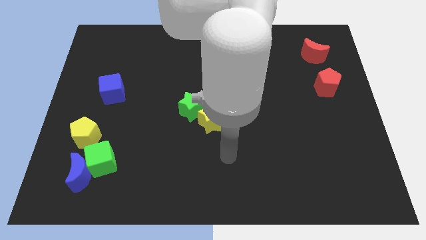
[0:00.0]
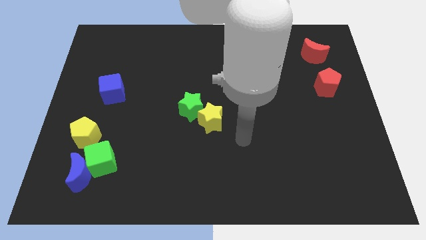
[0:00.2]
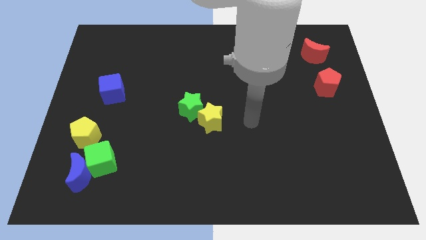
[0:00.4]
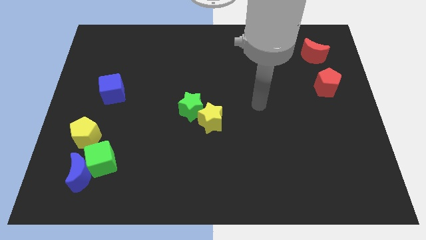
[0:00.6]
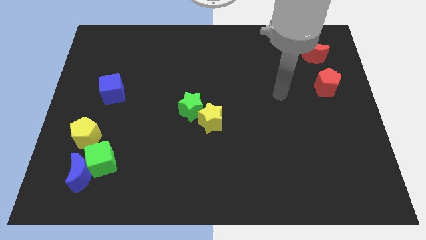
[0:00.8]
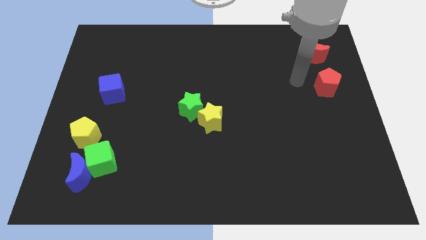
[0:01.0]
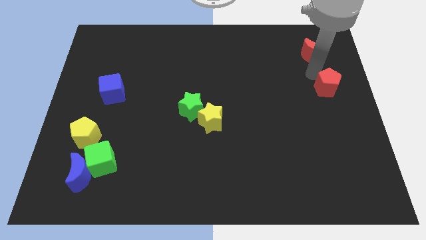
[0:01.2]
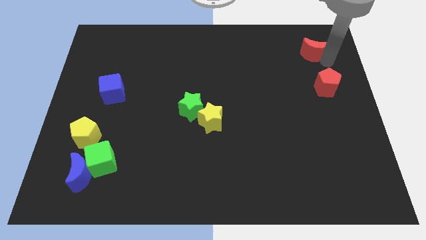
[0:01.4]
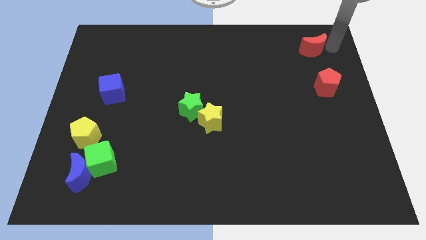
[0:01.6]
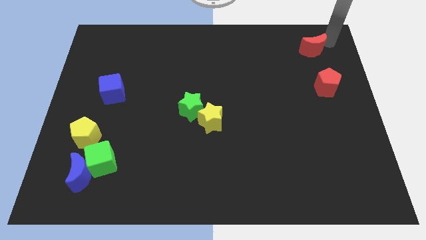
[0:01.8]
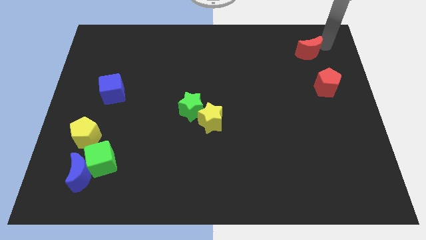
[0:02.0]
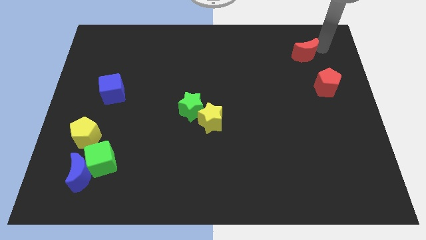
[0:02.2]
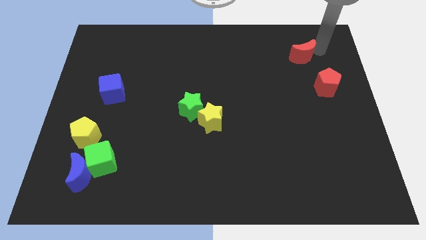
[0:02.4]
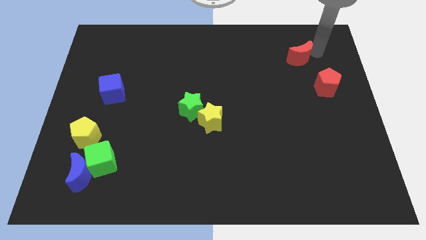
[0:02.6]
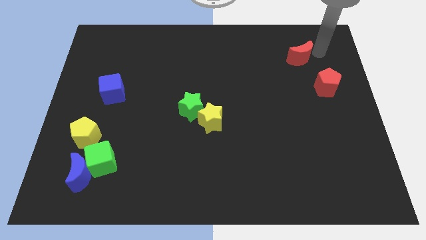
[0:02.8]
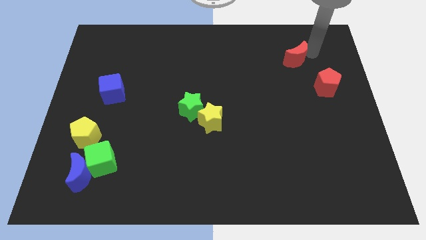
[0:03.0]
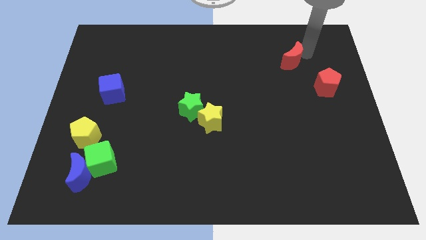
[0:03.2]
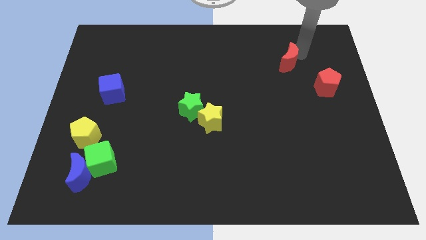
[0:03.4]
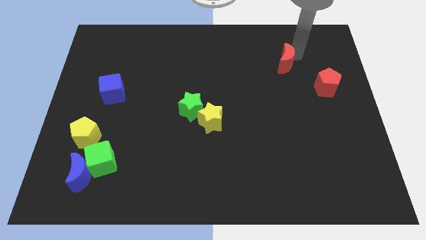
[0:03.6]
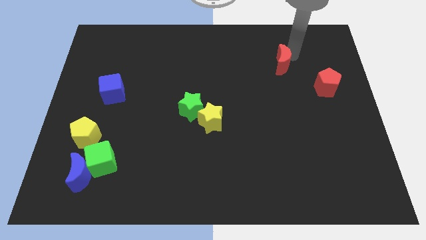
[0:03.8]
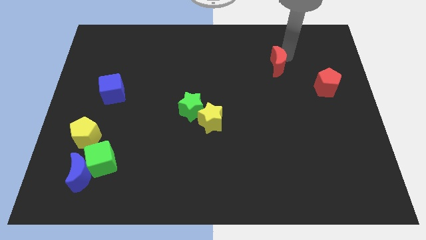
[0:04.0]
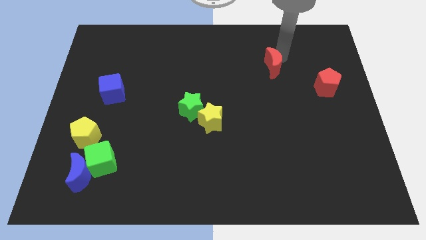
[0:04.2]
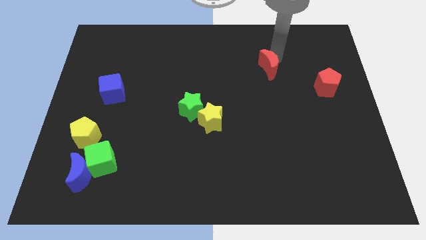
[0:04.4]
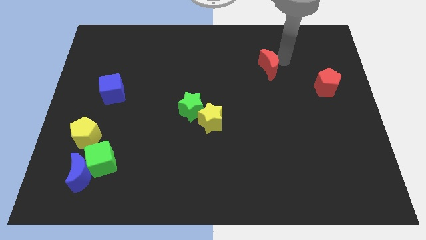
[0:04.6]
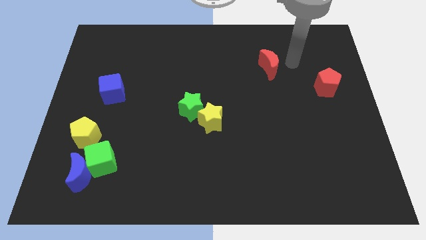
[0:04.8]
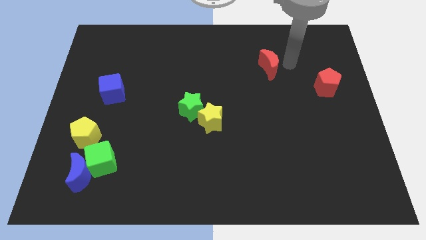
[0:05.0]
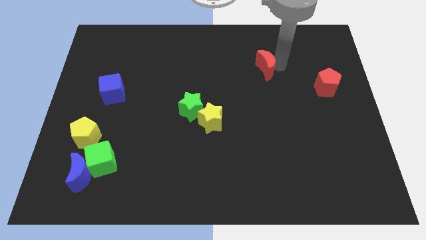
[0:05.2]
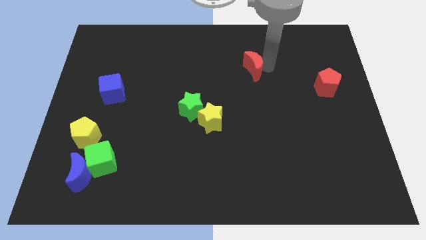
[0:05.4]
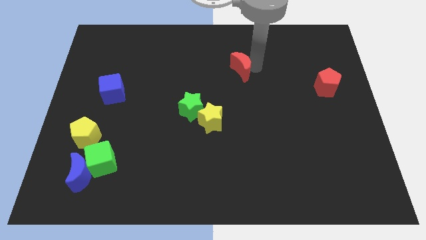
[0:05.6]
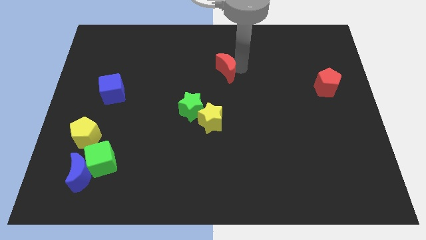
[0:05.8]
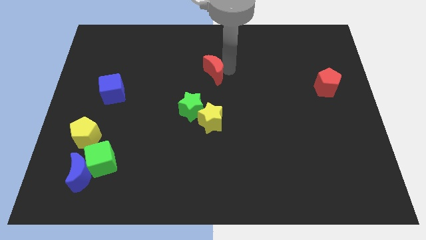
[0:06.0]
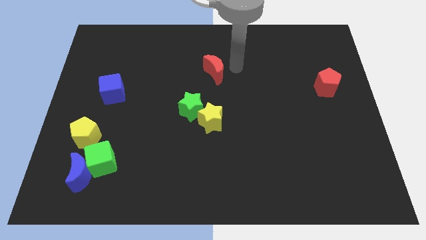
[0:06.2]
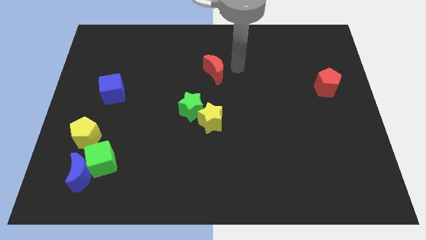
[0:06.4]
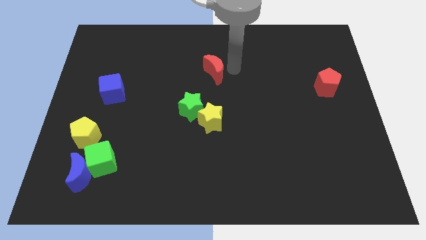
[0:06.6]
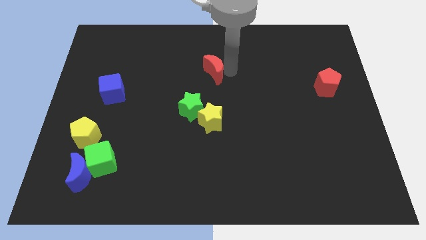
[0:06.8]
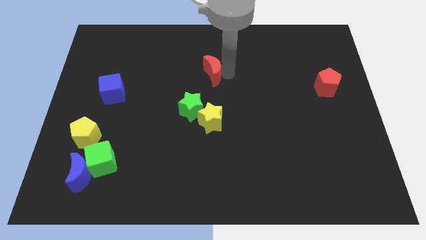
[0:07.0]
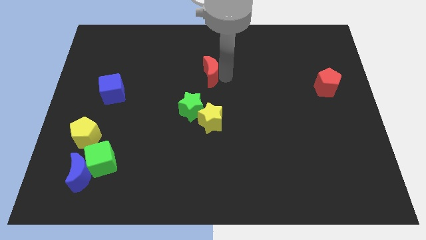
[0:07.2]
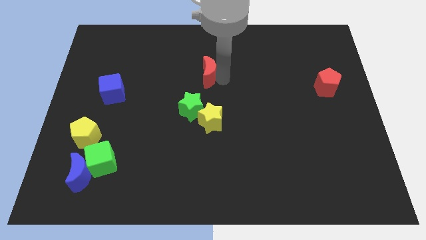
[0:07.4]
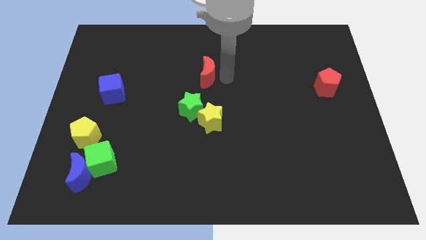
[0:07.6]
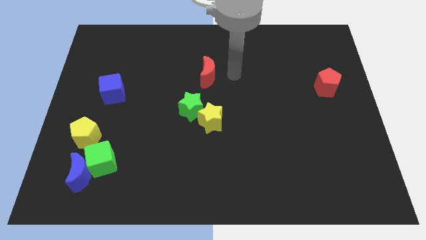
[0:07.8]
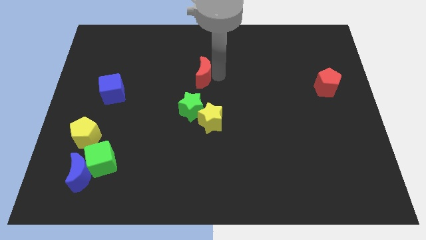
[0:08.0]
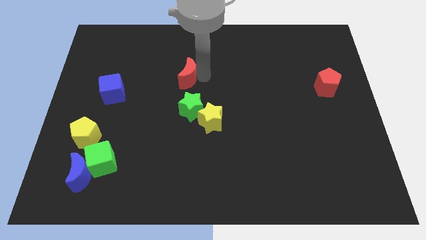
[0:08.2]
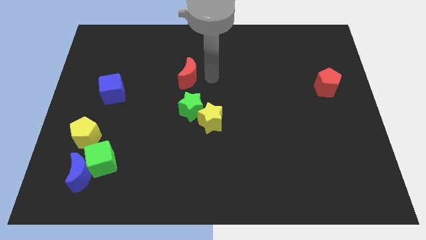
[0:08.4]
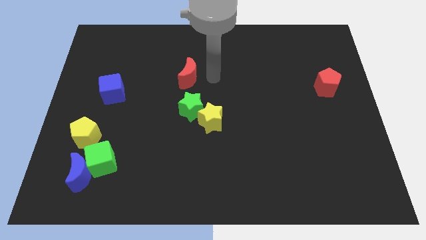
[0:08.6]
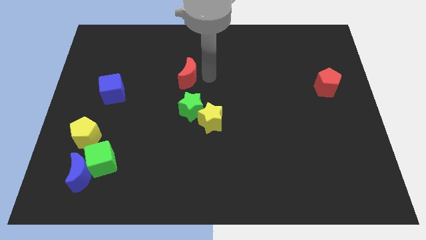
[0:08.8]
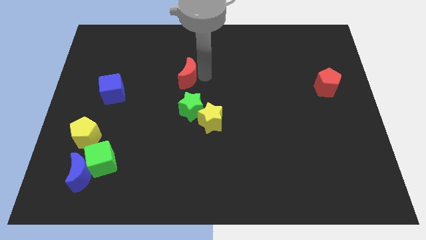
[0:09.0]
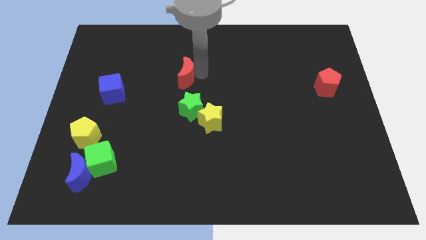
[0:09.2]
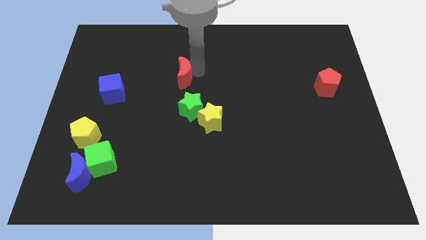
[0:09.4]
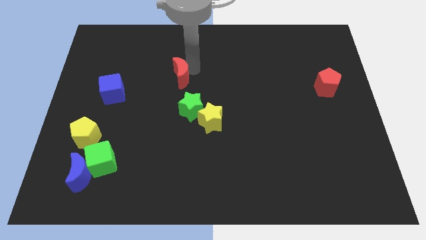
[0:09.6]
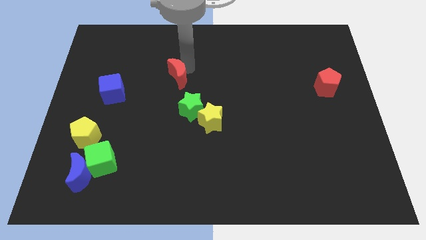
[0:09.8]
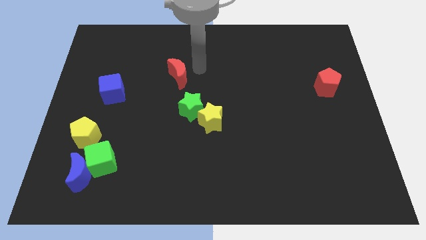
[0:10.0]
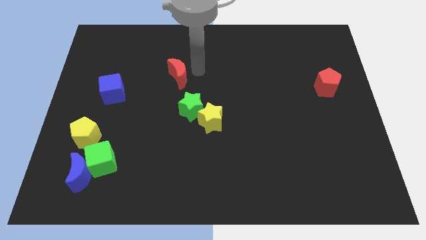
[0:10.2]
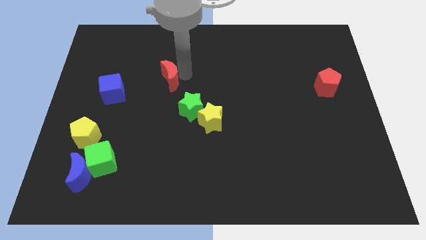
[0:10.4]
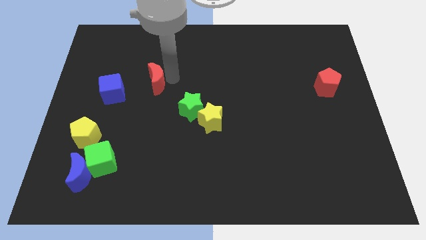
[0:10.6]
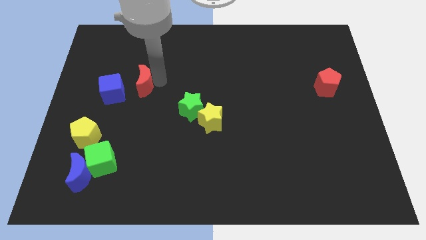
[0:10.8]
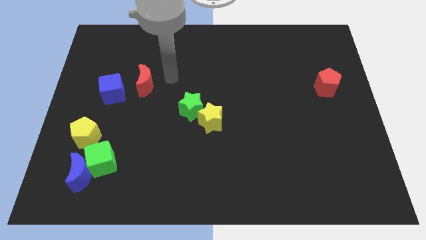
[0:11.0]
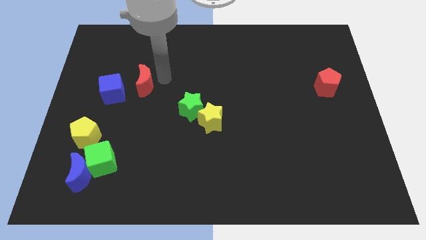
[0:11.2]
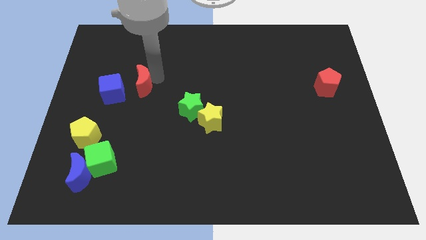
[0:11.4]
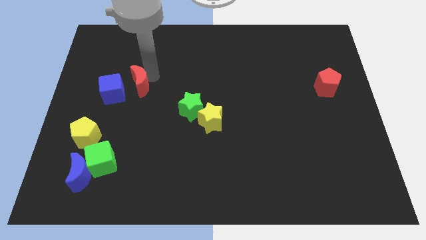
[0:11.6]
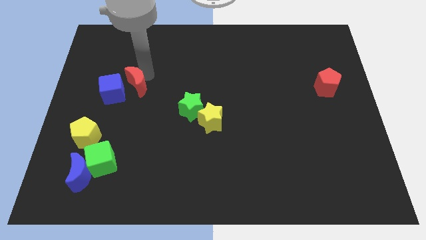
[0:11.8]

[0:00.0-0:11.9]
push the red moon to the blue cube
